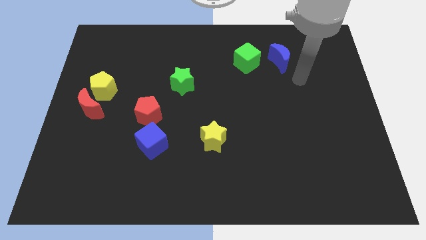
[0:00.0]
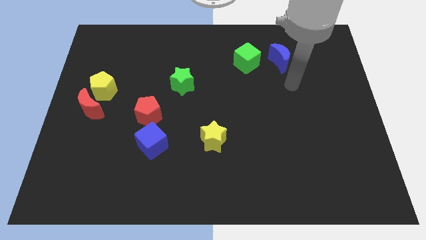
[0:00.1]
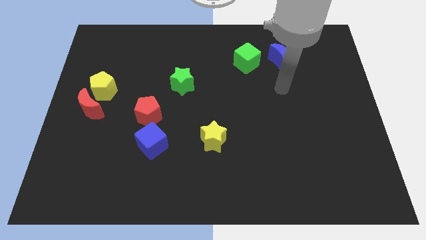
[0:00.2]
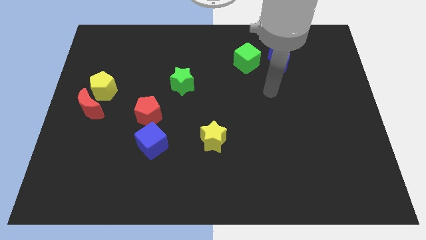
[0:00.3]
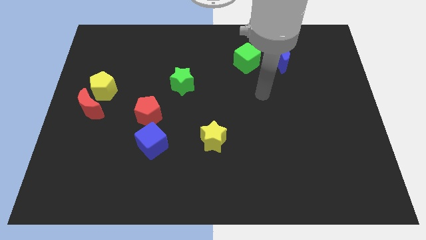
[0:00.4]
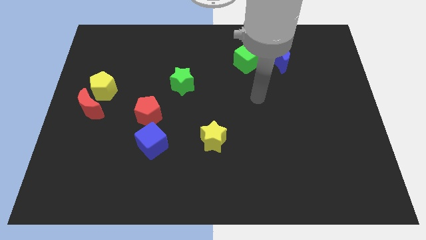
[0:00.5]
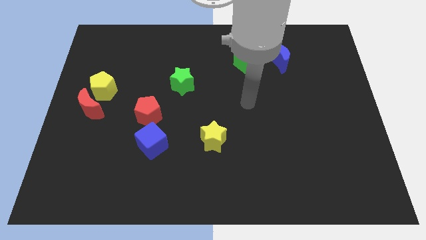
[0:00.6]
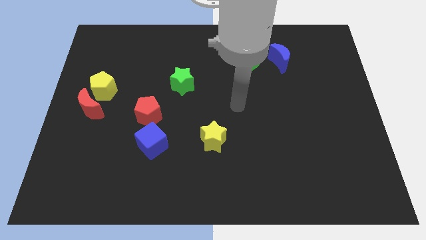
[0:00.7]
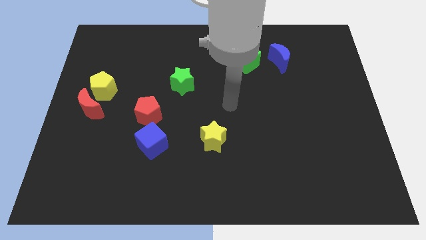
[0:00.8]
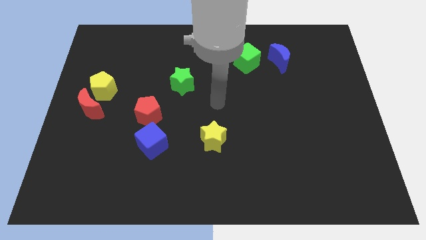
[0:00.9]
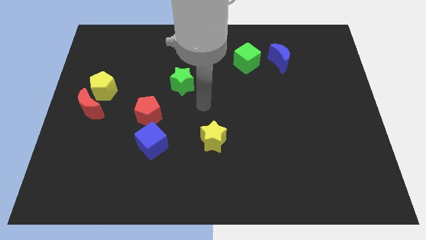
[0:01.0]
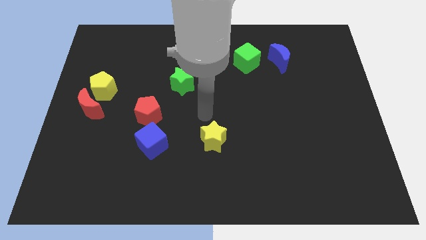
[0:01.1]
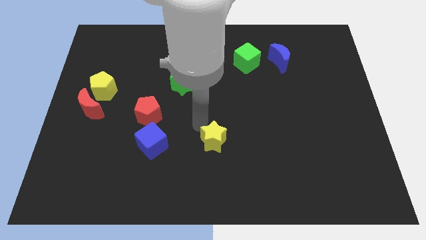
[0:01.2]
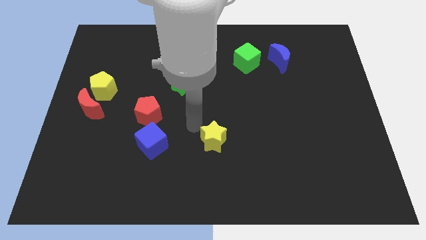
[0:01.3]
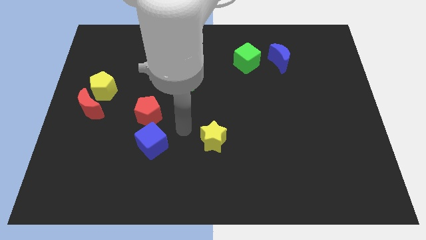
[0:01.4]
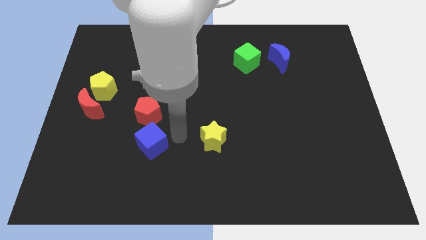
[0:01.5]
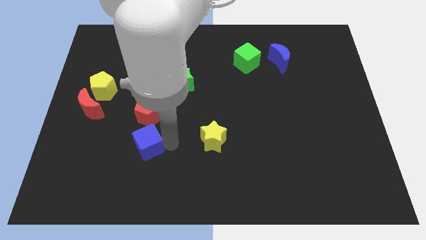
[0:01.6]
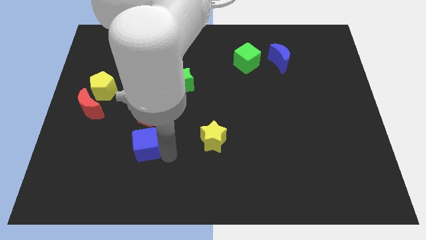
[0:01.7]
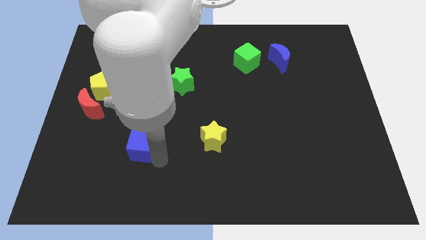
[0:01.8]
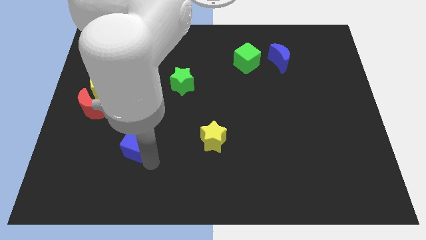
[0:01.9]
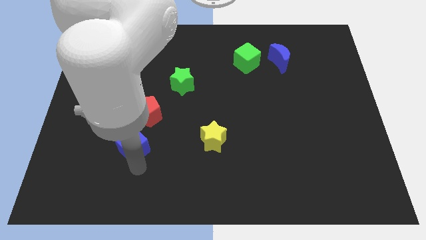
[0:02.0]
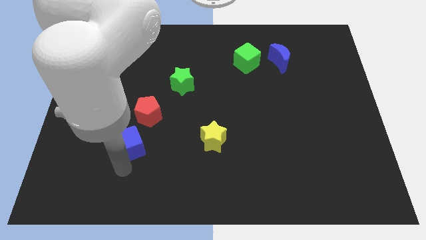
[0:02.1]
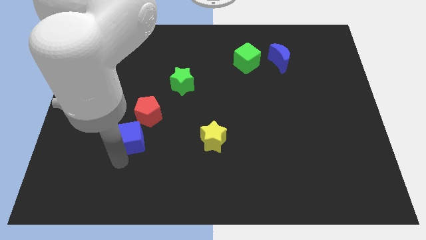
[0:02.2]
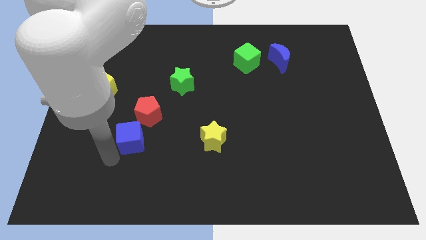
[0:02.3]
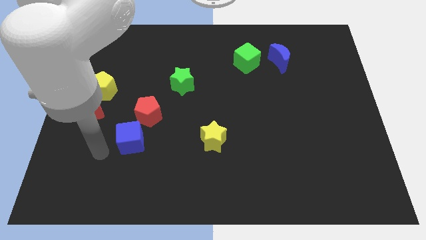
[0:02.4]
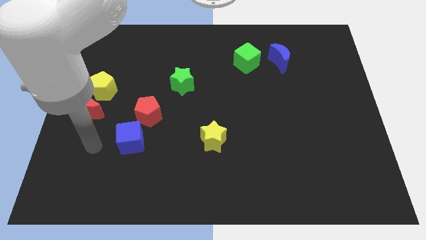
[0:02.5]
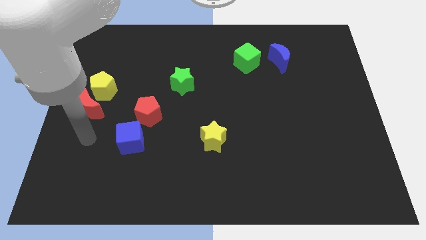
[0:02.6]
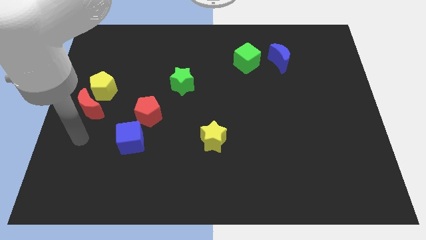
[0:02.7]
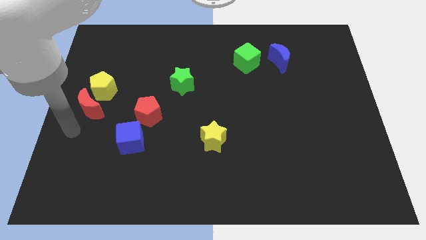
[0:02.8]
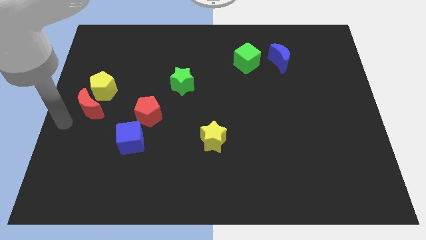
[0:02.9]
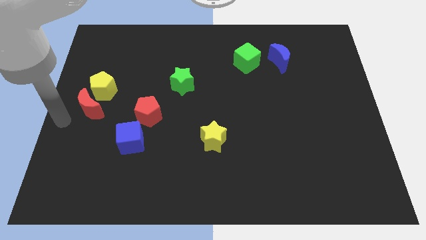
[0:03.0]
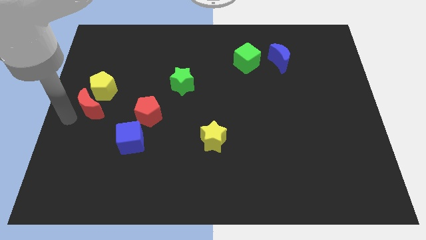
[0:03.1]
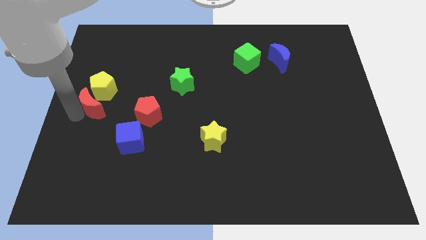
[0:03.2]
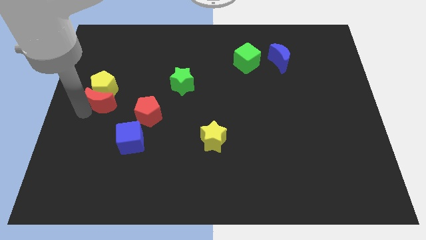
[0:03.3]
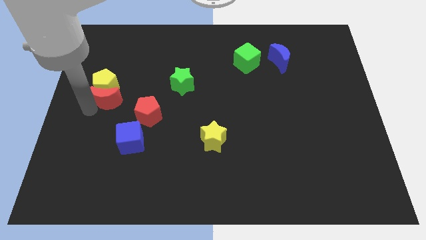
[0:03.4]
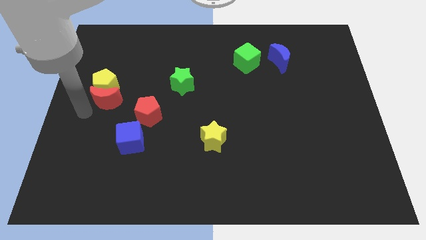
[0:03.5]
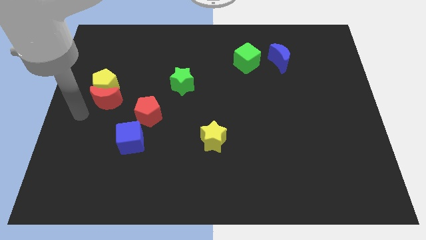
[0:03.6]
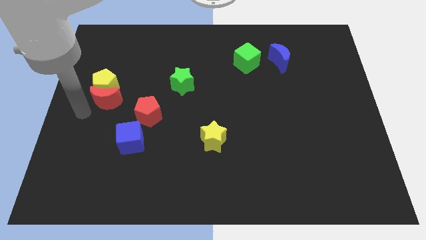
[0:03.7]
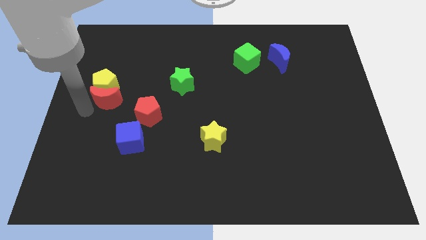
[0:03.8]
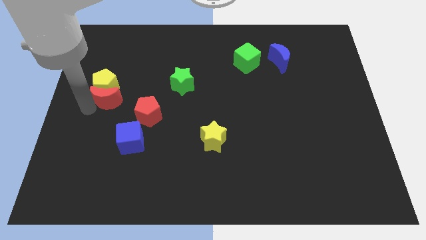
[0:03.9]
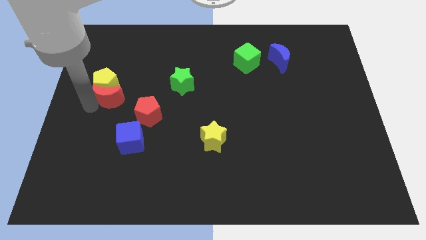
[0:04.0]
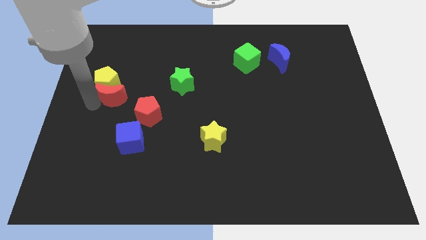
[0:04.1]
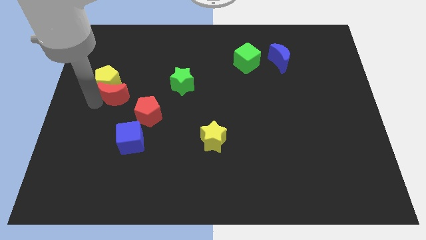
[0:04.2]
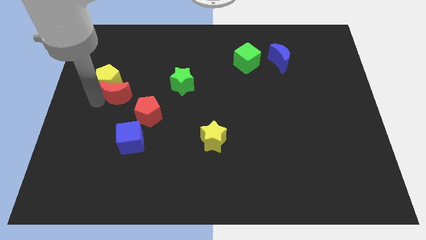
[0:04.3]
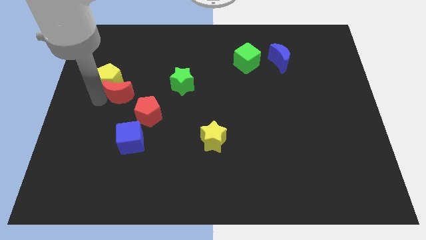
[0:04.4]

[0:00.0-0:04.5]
slightly slide the red moon upwards and then to the right

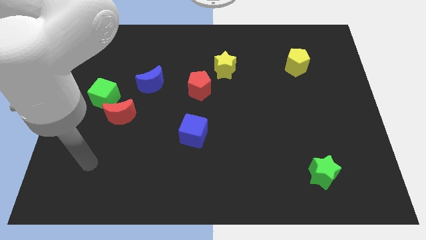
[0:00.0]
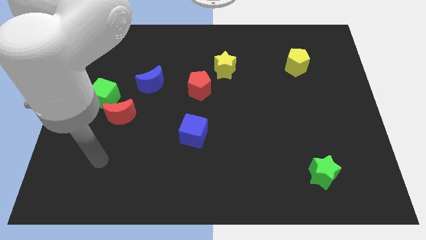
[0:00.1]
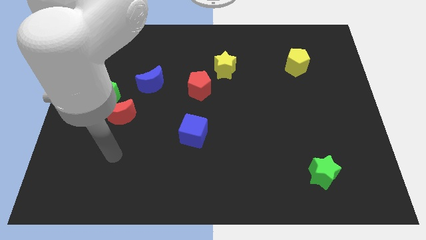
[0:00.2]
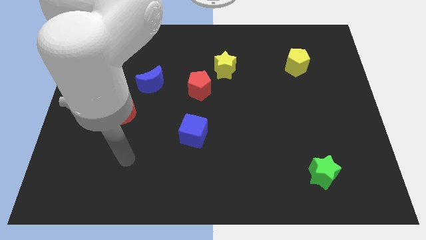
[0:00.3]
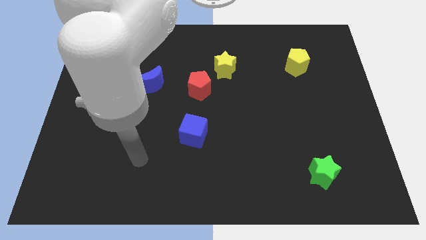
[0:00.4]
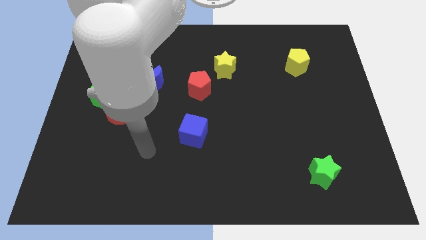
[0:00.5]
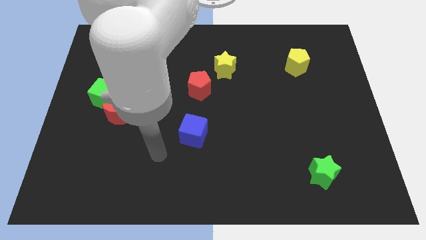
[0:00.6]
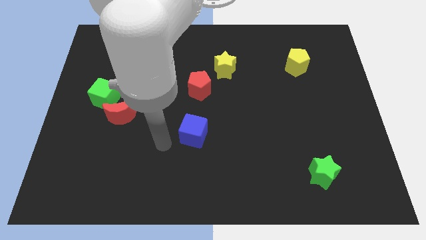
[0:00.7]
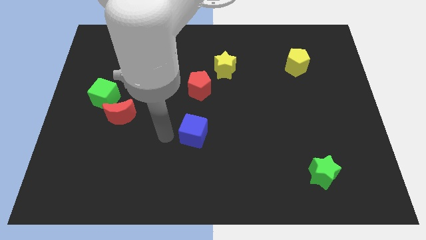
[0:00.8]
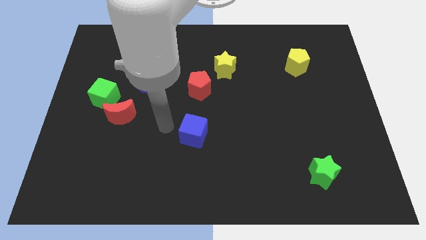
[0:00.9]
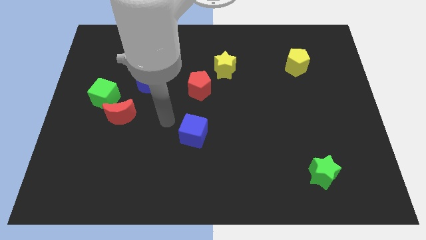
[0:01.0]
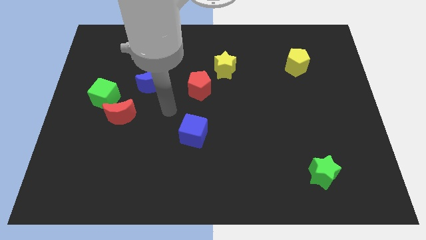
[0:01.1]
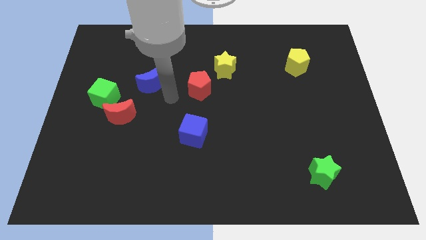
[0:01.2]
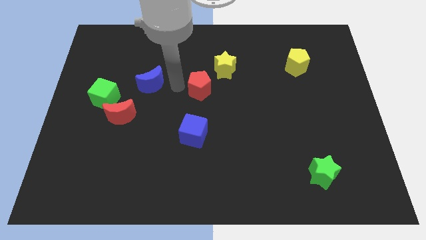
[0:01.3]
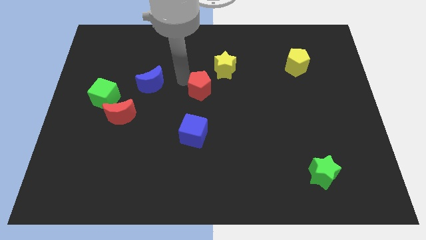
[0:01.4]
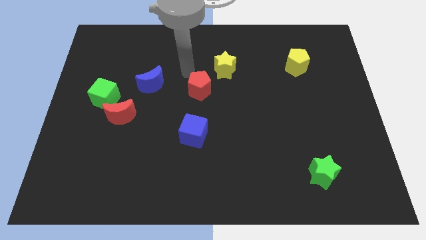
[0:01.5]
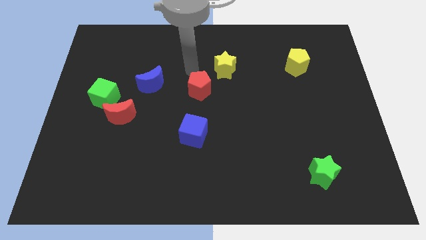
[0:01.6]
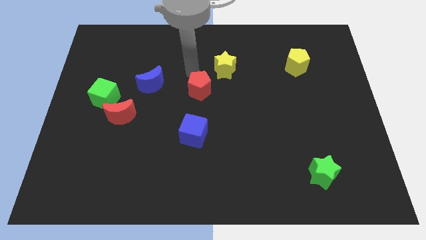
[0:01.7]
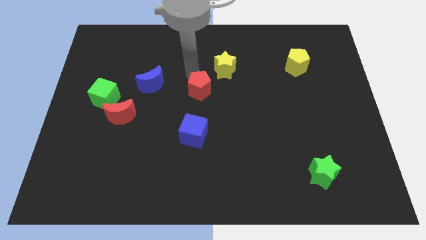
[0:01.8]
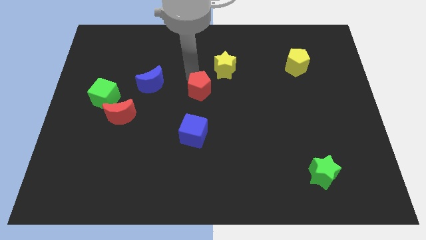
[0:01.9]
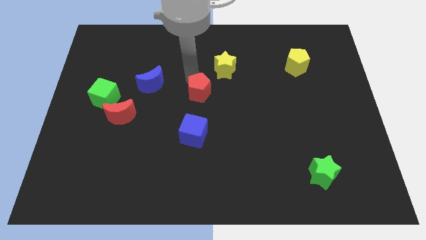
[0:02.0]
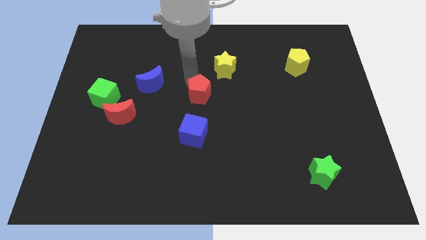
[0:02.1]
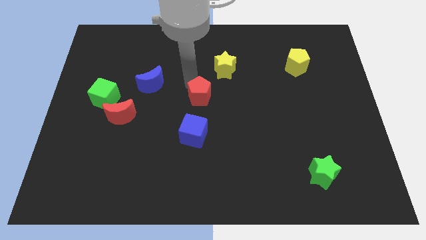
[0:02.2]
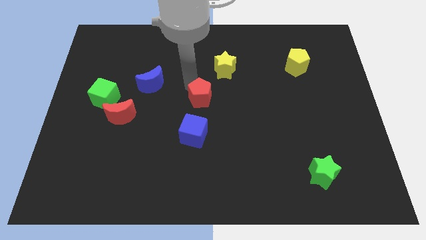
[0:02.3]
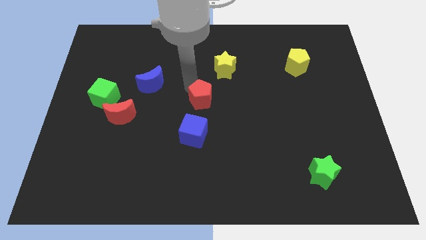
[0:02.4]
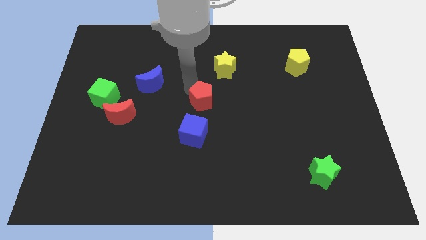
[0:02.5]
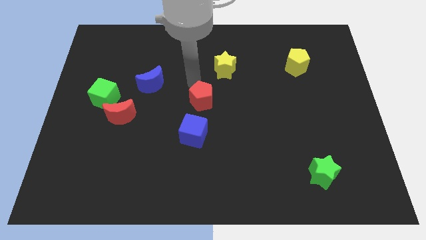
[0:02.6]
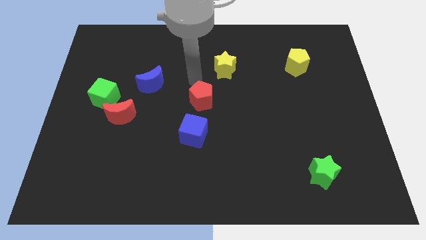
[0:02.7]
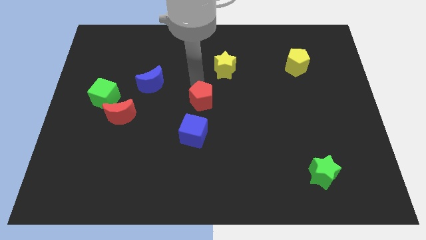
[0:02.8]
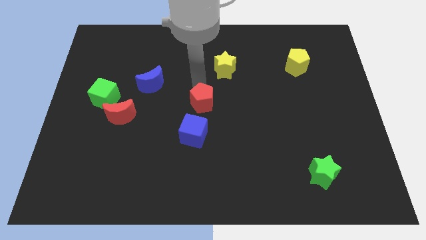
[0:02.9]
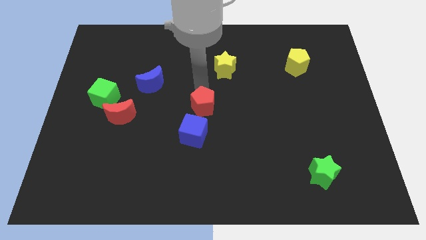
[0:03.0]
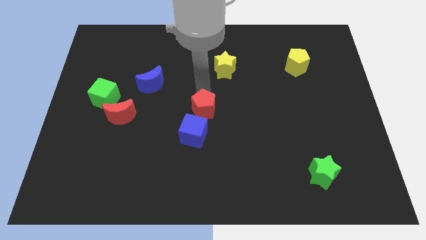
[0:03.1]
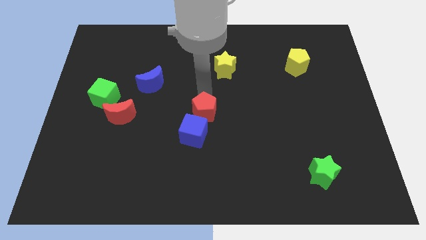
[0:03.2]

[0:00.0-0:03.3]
slightly move the red pentagon downwards
